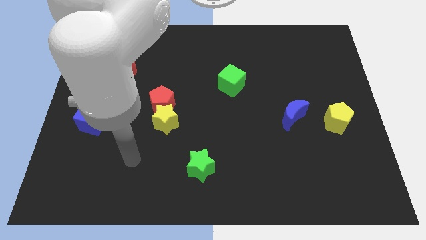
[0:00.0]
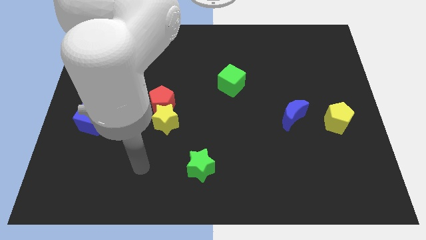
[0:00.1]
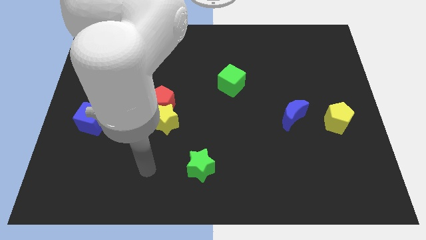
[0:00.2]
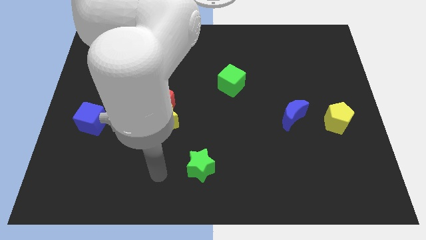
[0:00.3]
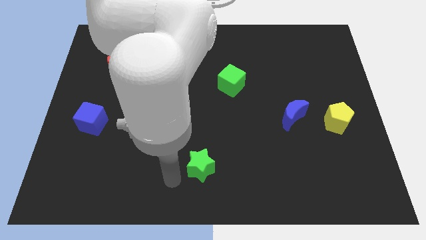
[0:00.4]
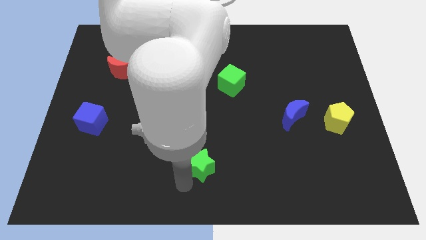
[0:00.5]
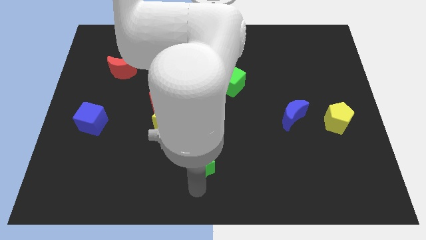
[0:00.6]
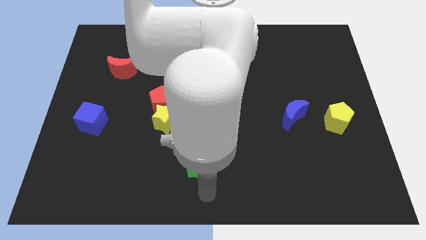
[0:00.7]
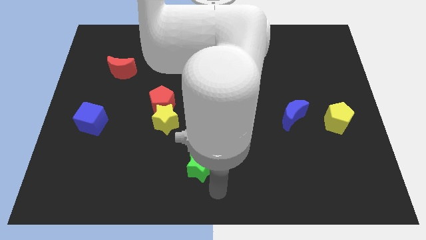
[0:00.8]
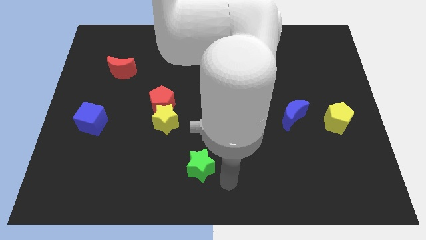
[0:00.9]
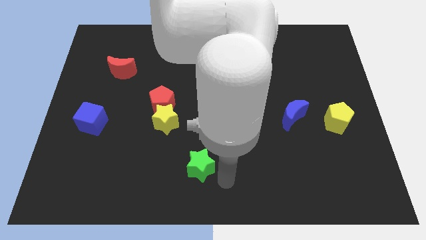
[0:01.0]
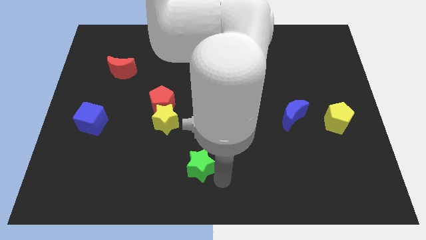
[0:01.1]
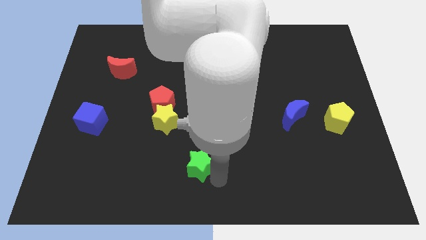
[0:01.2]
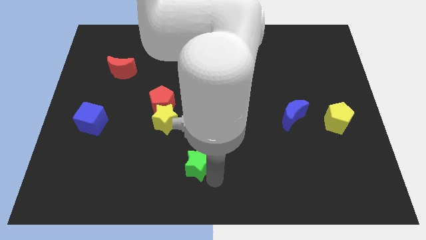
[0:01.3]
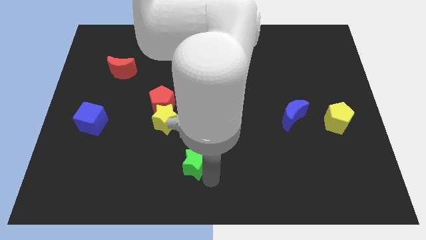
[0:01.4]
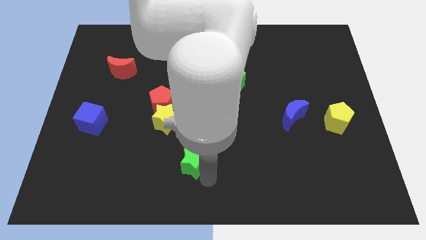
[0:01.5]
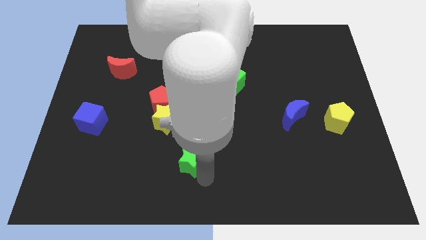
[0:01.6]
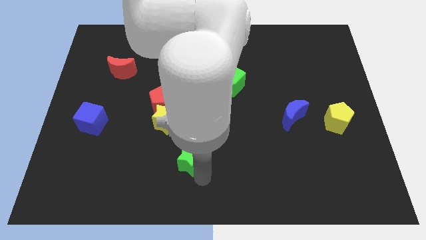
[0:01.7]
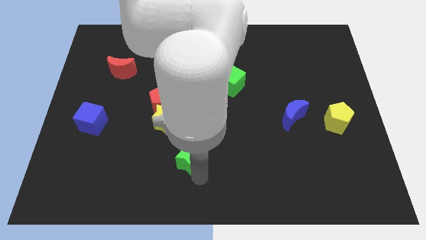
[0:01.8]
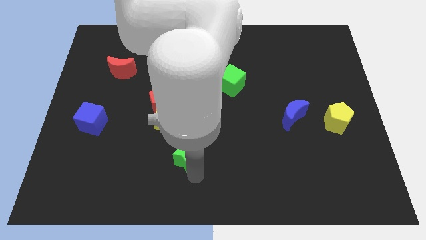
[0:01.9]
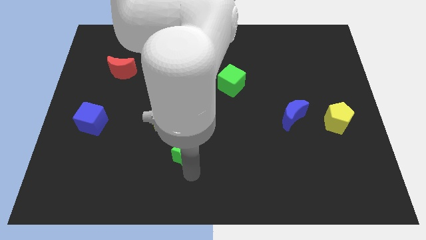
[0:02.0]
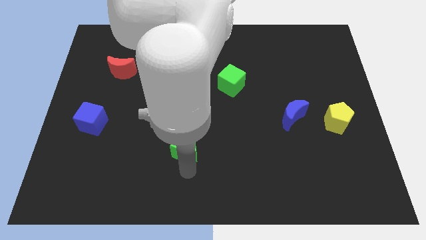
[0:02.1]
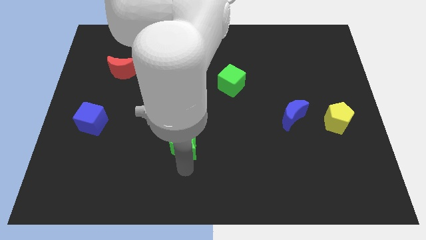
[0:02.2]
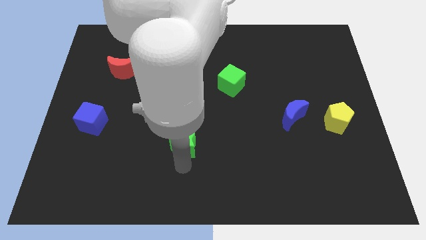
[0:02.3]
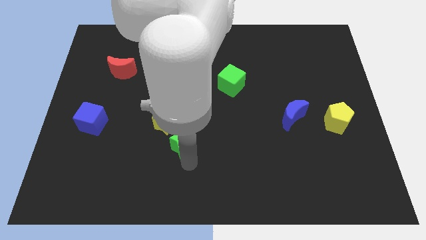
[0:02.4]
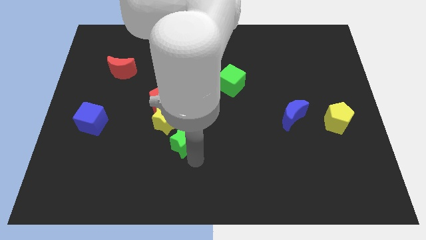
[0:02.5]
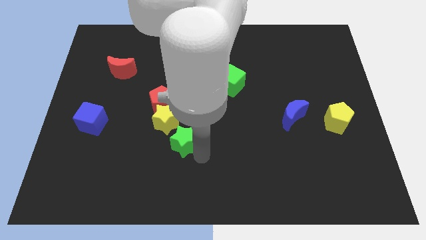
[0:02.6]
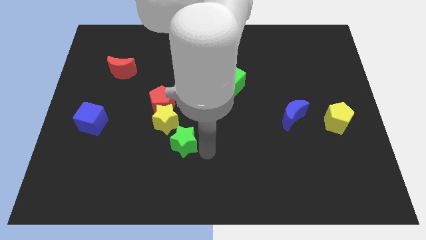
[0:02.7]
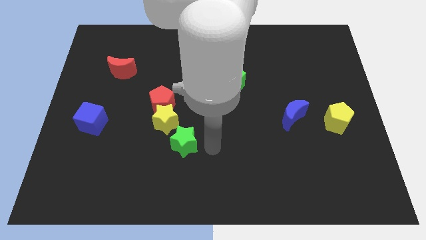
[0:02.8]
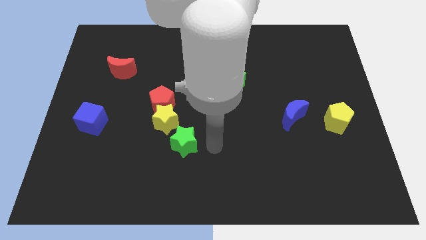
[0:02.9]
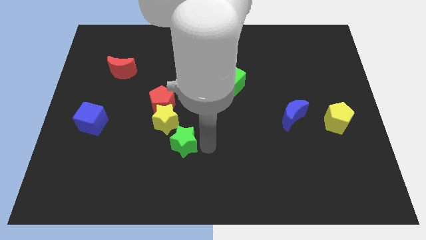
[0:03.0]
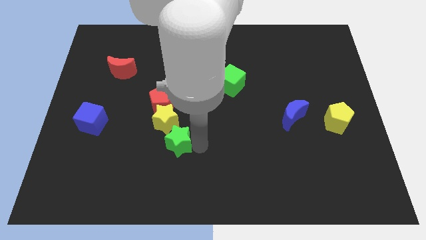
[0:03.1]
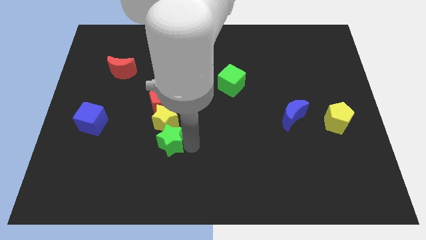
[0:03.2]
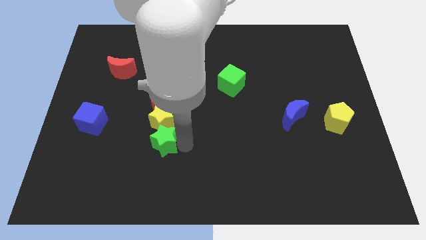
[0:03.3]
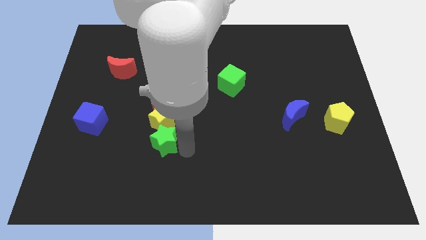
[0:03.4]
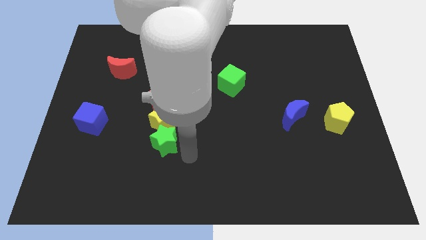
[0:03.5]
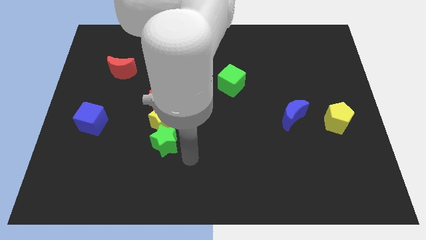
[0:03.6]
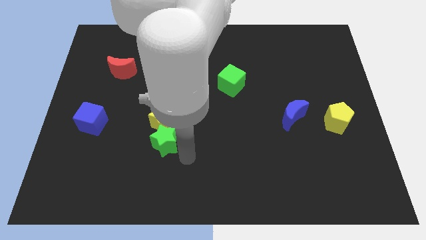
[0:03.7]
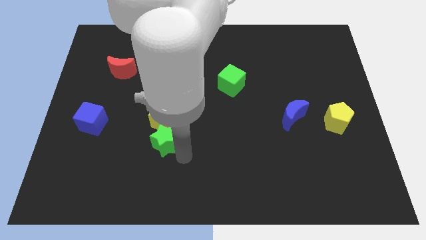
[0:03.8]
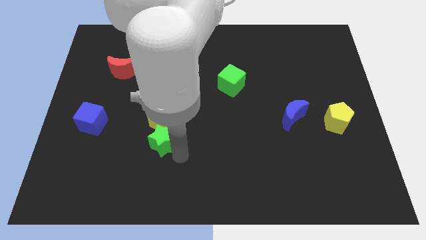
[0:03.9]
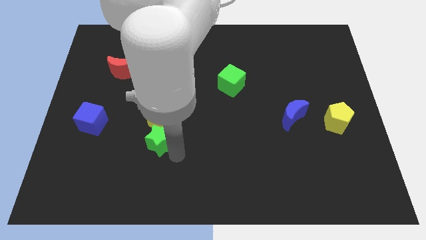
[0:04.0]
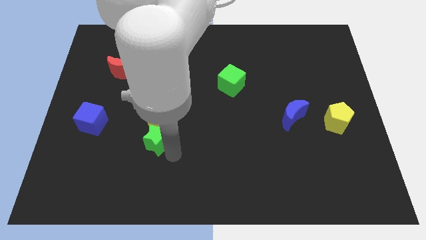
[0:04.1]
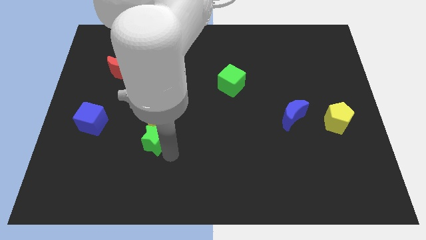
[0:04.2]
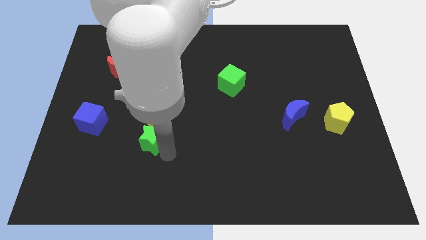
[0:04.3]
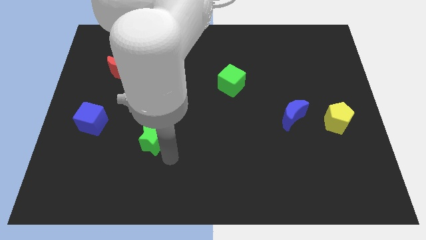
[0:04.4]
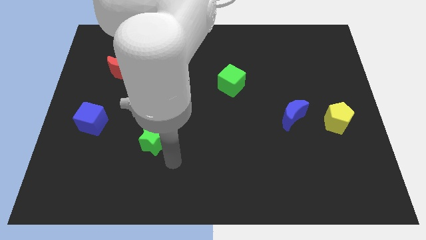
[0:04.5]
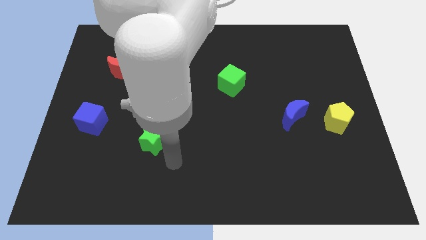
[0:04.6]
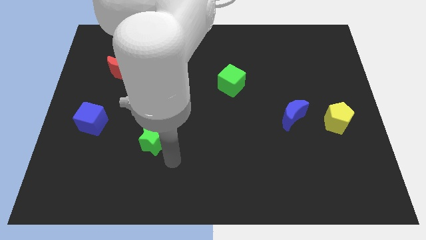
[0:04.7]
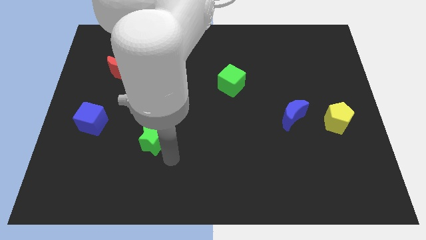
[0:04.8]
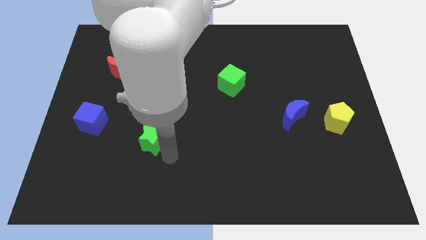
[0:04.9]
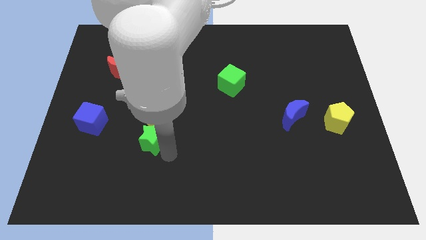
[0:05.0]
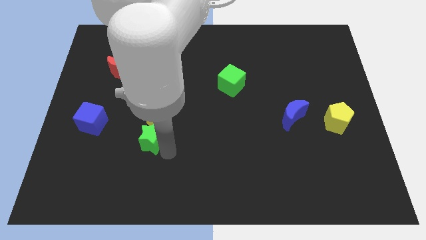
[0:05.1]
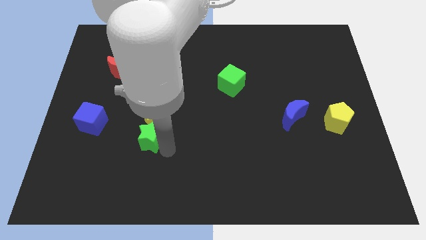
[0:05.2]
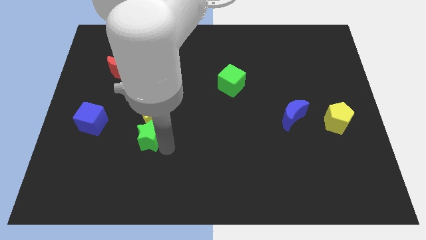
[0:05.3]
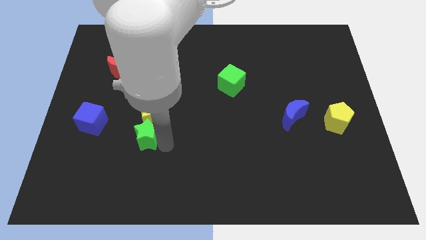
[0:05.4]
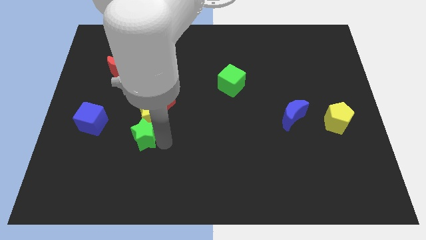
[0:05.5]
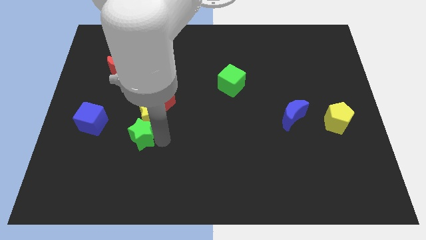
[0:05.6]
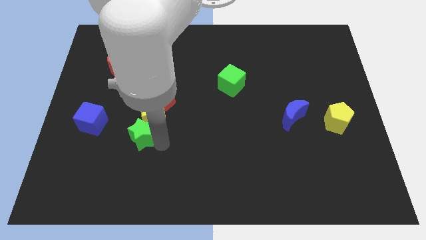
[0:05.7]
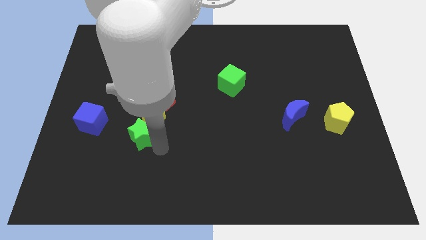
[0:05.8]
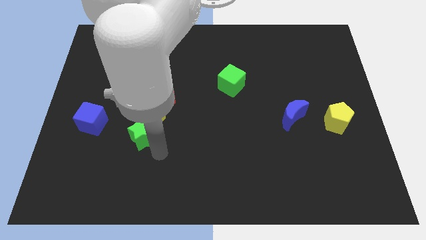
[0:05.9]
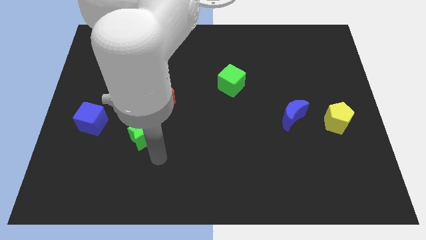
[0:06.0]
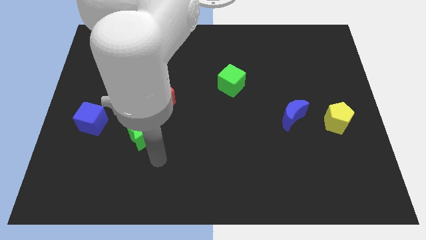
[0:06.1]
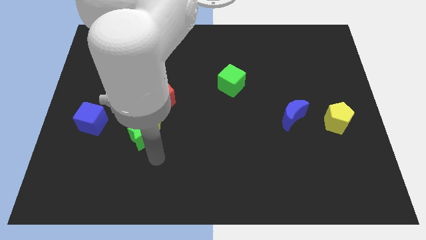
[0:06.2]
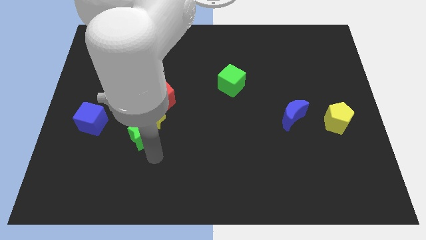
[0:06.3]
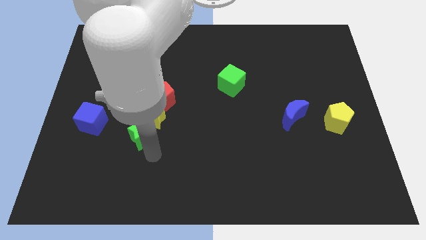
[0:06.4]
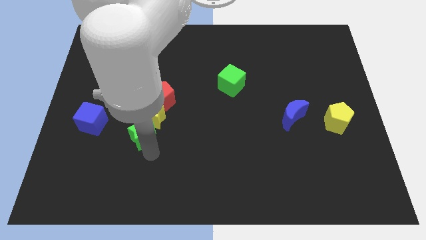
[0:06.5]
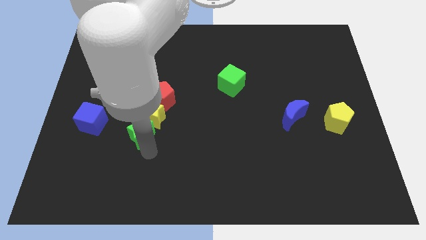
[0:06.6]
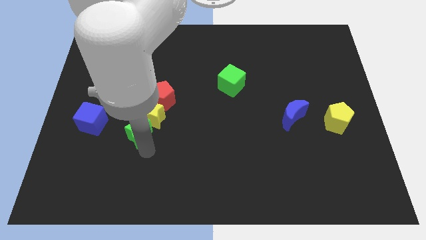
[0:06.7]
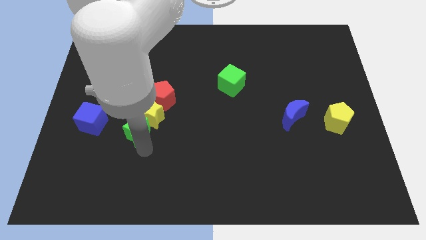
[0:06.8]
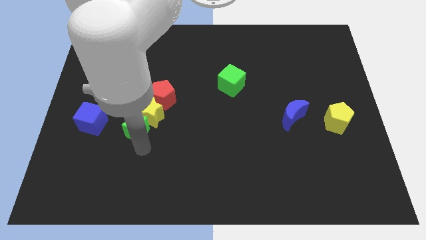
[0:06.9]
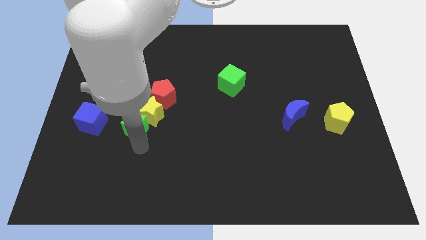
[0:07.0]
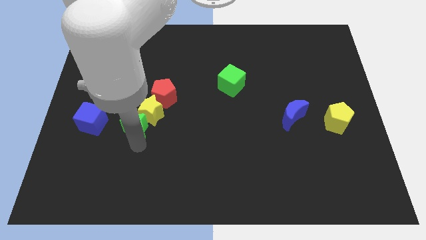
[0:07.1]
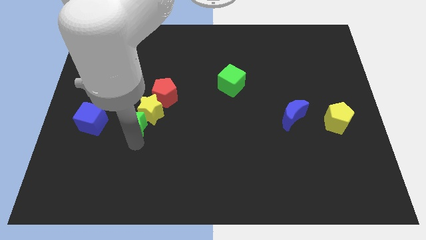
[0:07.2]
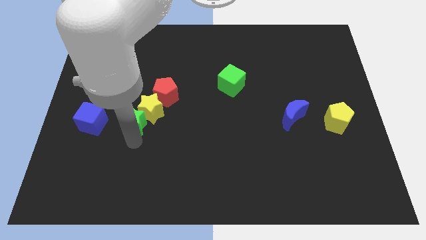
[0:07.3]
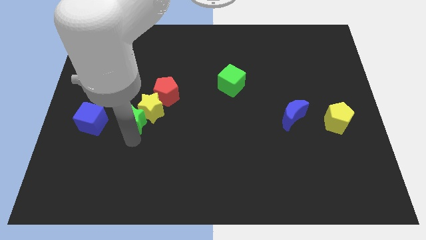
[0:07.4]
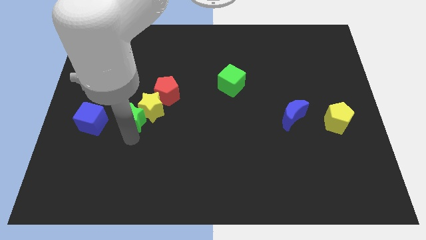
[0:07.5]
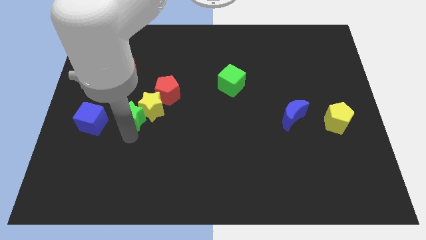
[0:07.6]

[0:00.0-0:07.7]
move the green star up and then to the left

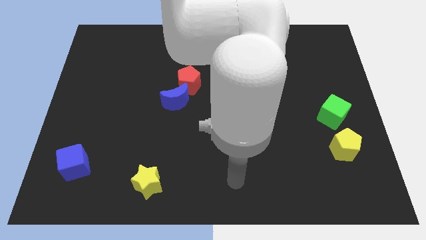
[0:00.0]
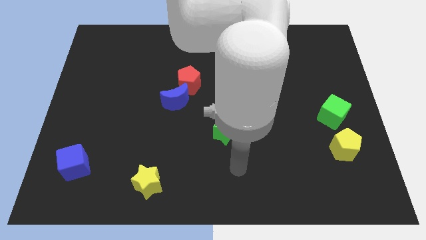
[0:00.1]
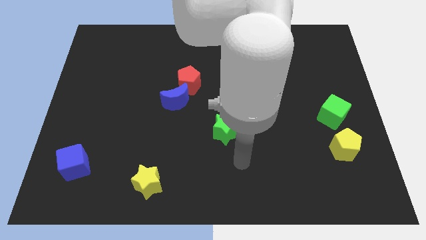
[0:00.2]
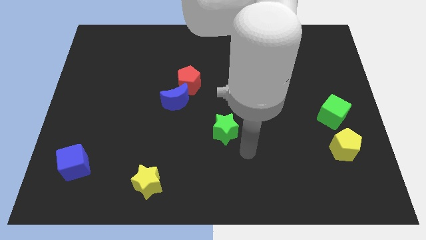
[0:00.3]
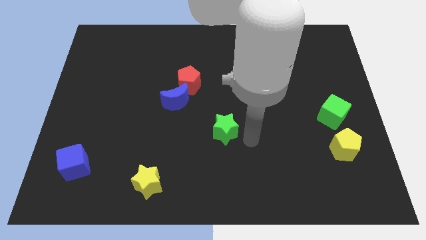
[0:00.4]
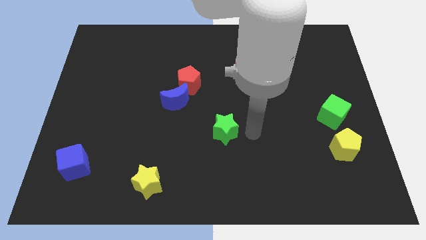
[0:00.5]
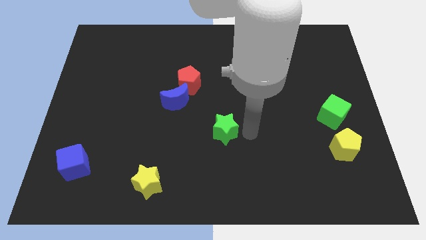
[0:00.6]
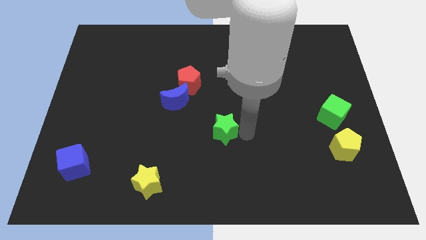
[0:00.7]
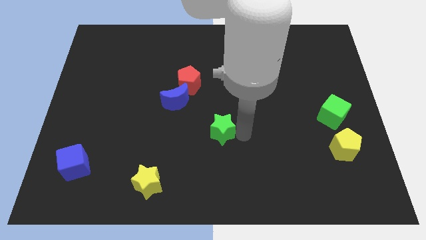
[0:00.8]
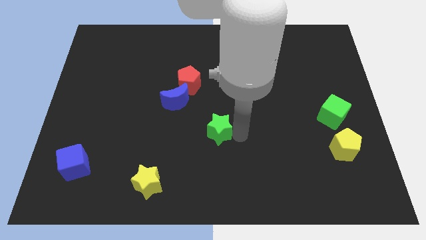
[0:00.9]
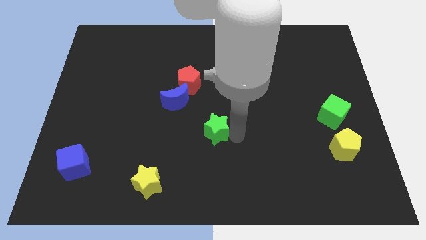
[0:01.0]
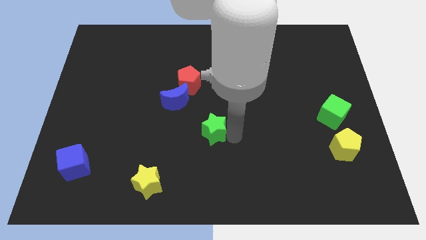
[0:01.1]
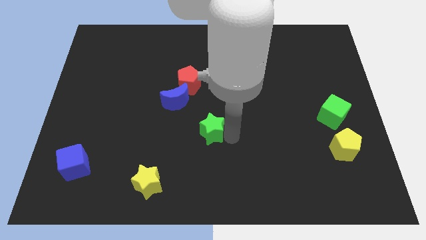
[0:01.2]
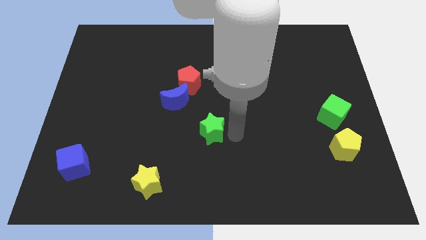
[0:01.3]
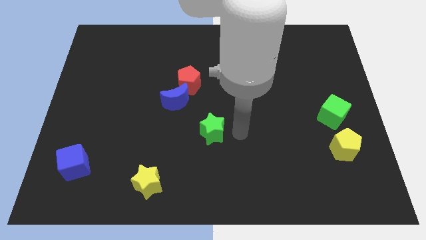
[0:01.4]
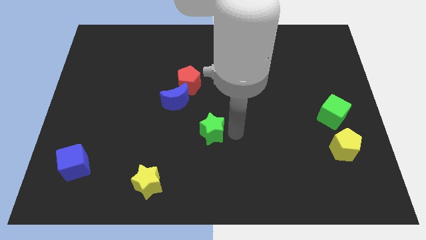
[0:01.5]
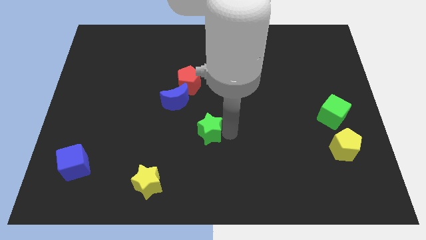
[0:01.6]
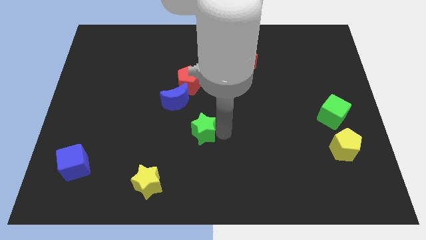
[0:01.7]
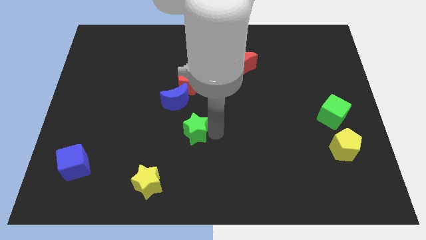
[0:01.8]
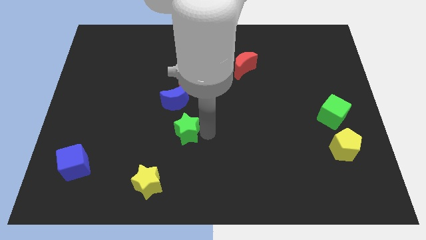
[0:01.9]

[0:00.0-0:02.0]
slide the green star a bit to the left
